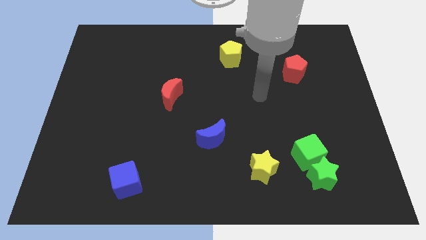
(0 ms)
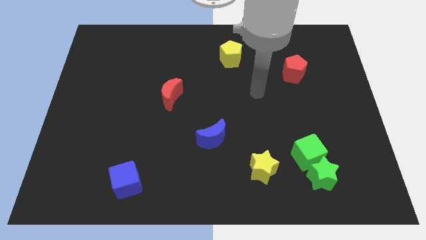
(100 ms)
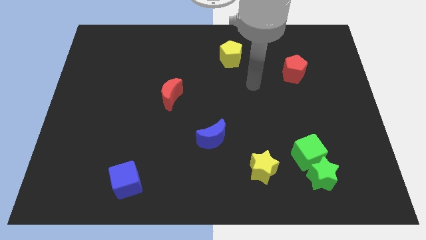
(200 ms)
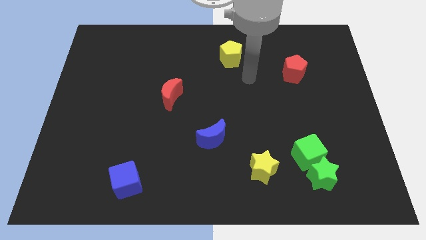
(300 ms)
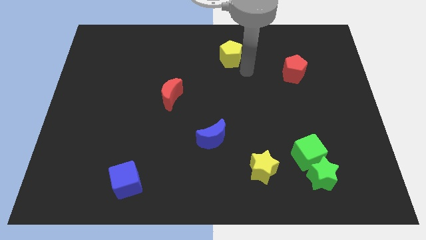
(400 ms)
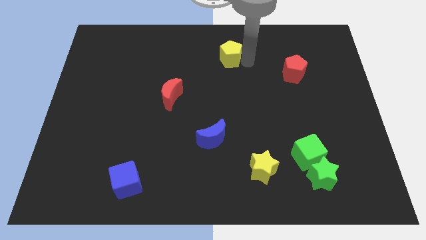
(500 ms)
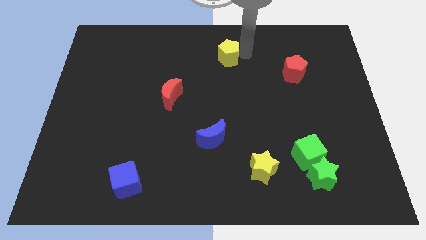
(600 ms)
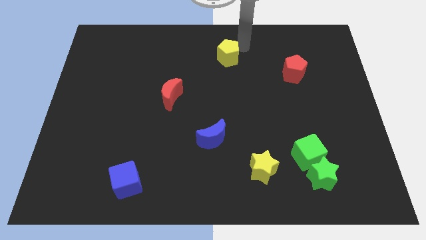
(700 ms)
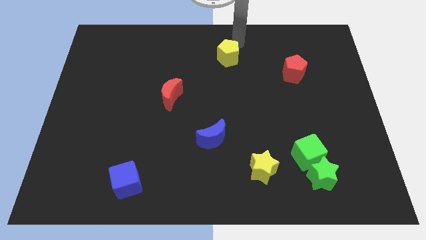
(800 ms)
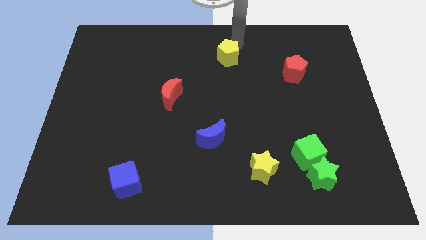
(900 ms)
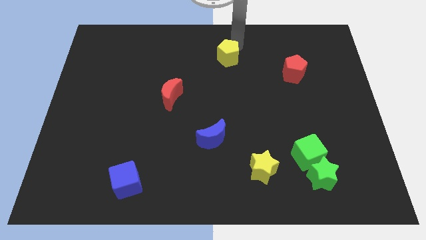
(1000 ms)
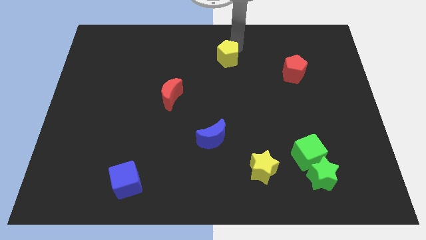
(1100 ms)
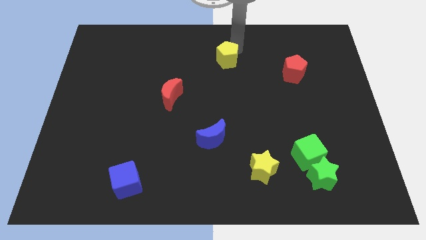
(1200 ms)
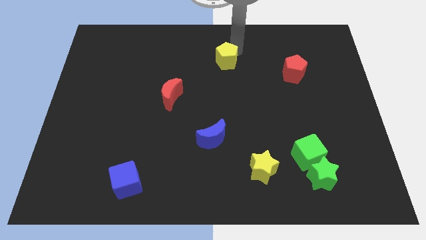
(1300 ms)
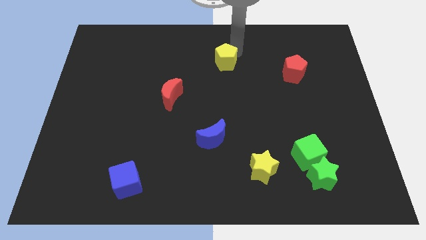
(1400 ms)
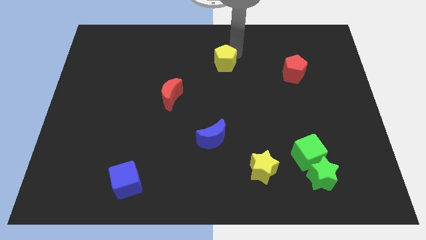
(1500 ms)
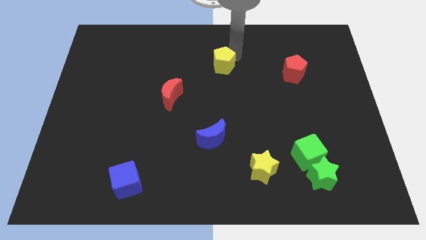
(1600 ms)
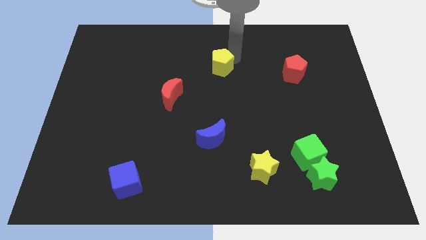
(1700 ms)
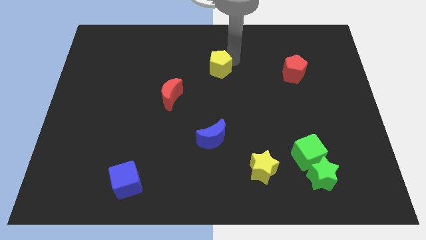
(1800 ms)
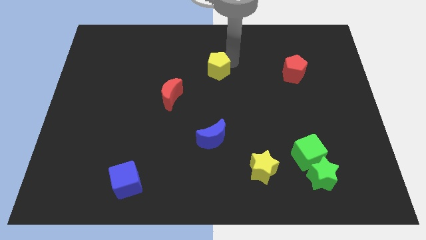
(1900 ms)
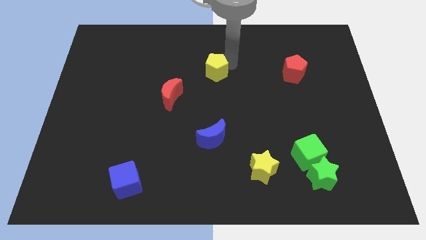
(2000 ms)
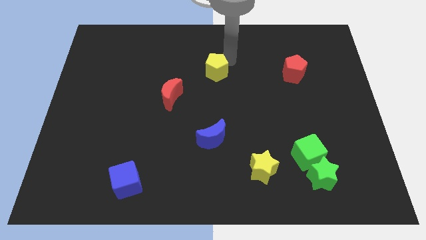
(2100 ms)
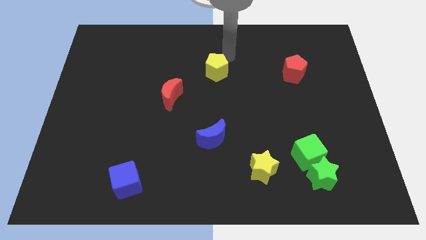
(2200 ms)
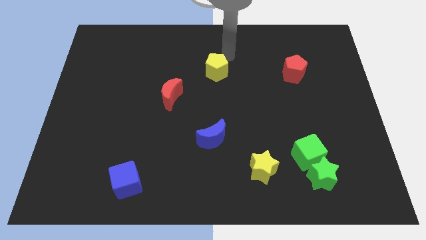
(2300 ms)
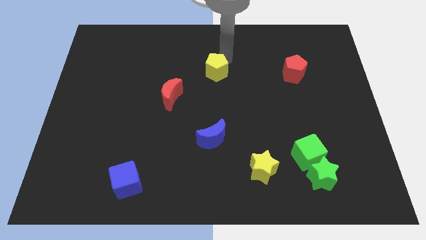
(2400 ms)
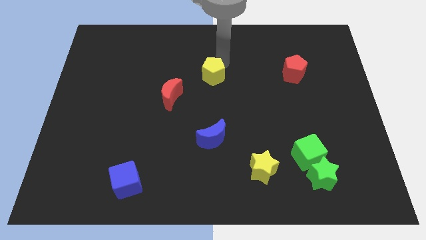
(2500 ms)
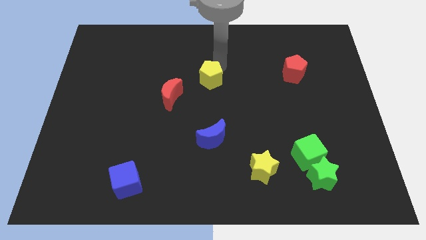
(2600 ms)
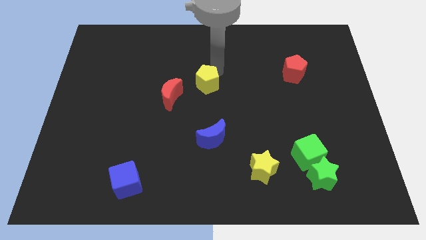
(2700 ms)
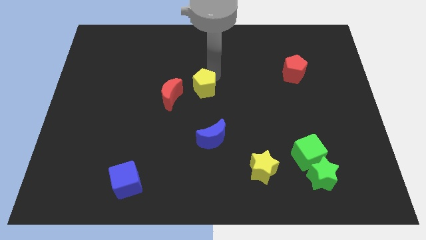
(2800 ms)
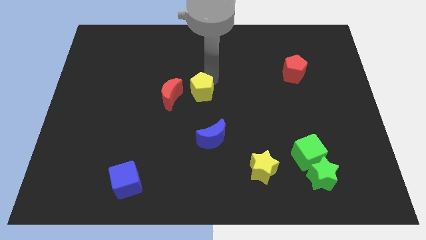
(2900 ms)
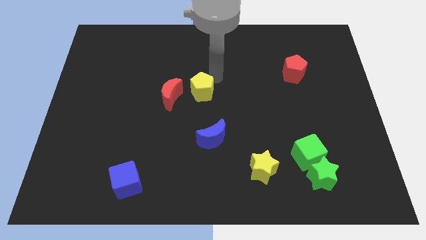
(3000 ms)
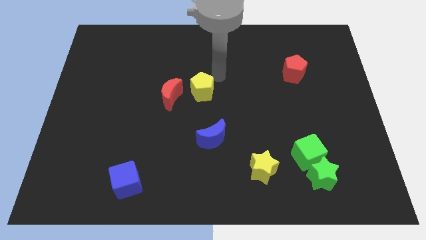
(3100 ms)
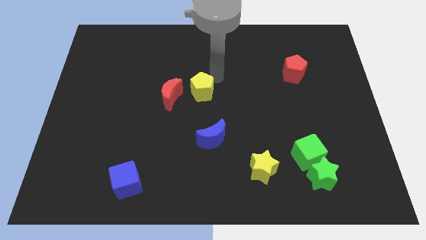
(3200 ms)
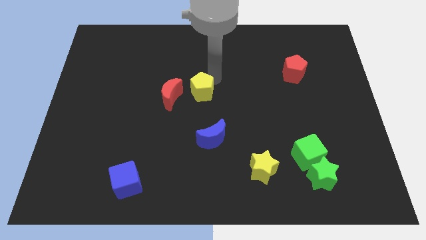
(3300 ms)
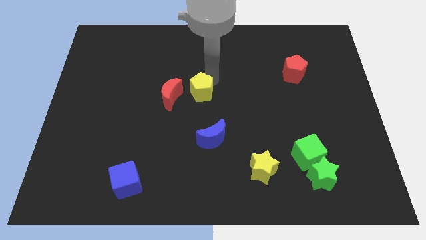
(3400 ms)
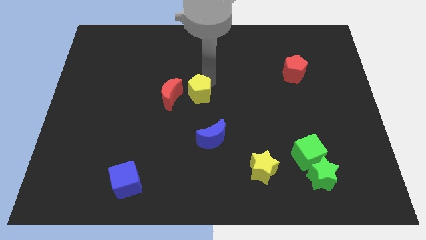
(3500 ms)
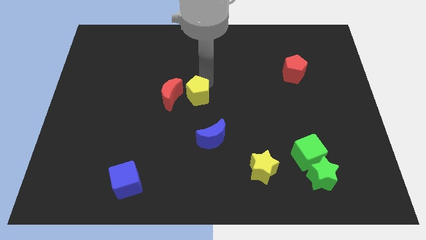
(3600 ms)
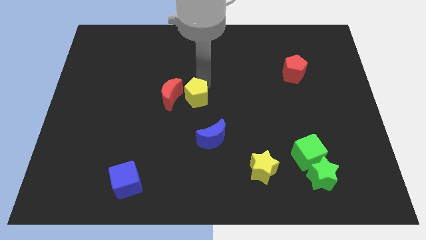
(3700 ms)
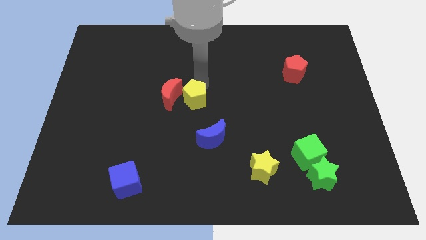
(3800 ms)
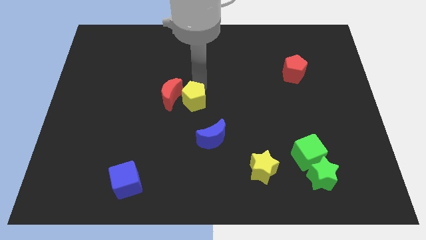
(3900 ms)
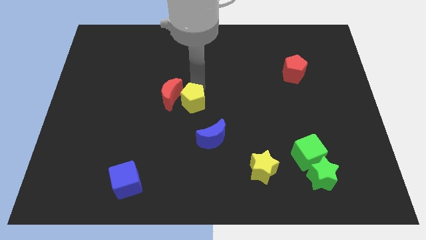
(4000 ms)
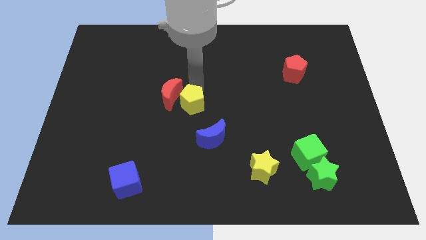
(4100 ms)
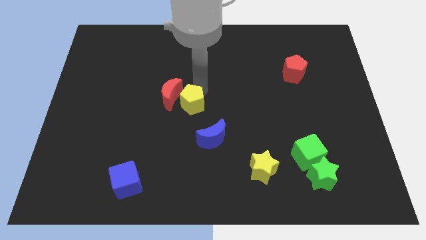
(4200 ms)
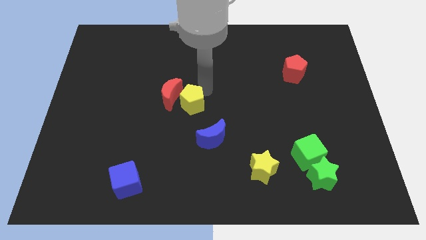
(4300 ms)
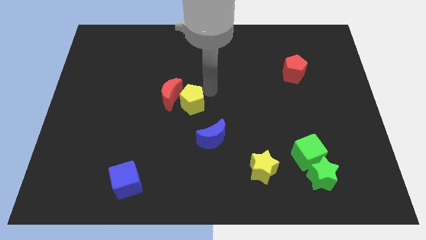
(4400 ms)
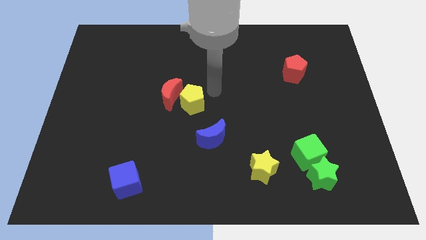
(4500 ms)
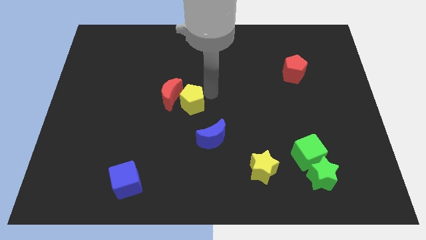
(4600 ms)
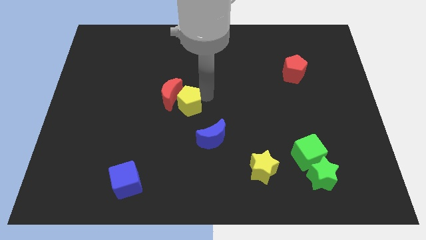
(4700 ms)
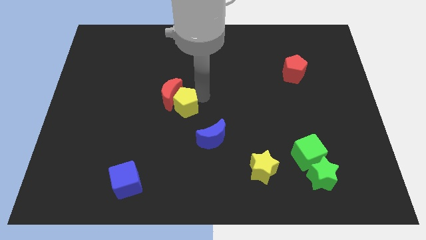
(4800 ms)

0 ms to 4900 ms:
put the yellow pentagon to the bottom of the red moon

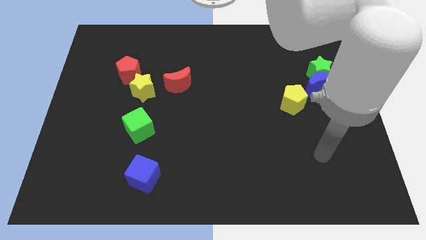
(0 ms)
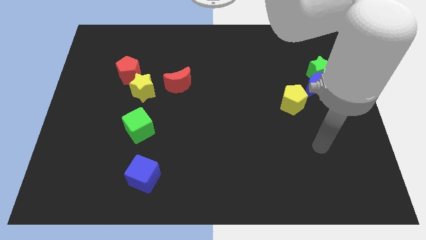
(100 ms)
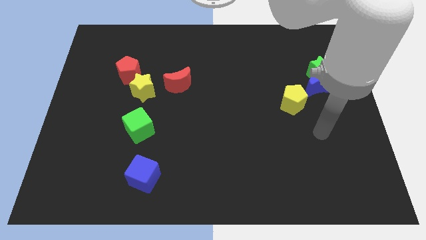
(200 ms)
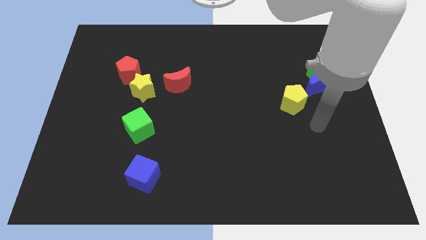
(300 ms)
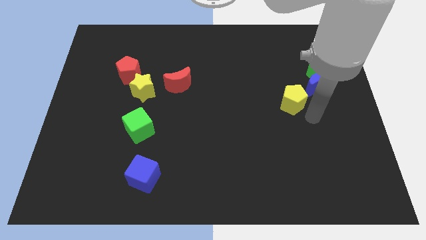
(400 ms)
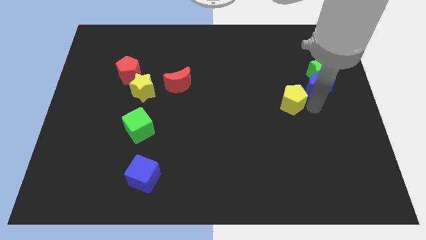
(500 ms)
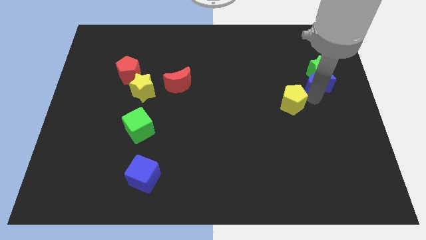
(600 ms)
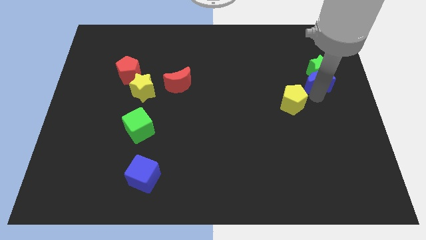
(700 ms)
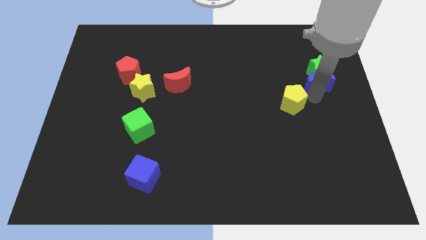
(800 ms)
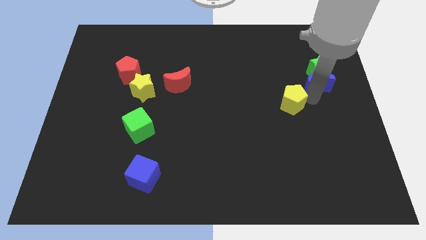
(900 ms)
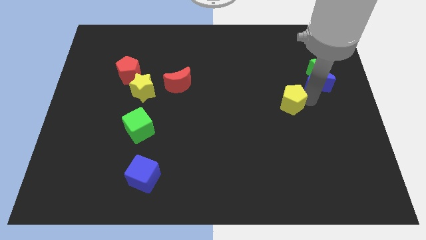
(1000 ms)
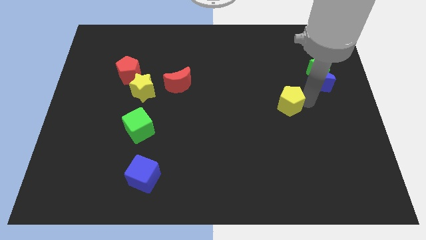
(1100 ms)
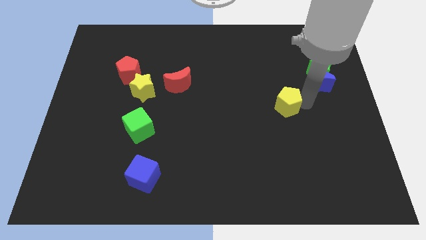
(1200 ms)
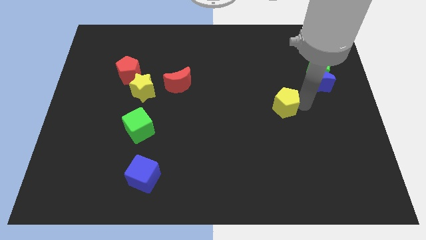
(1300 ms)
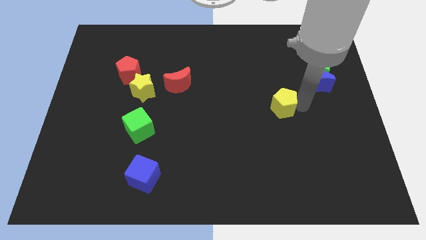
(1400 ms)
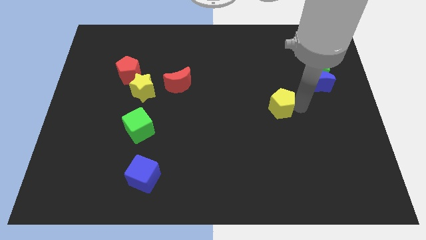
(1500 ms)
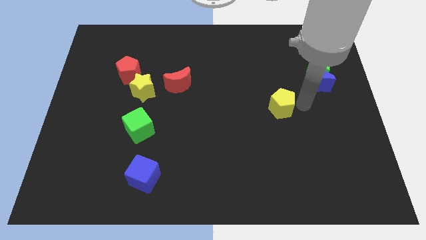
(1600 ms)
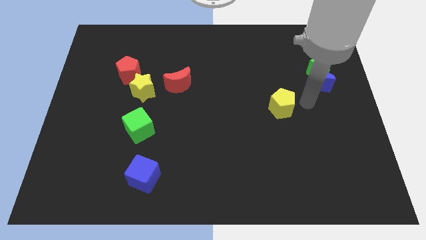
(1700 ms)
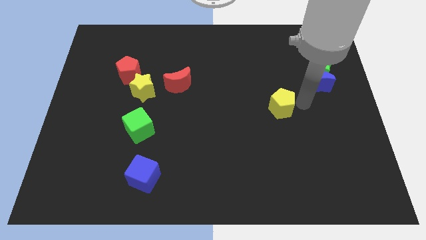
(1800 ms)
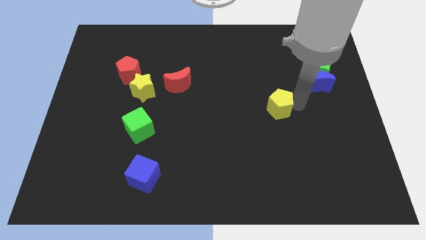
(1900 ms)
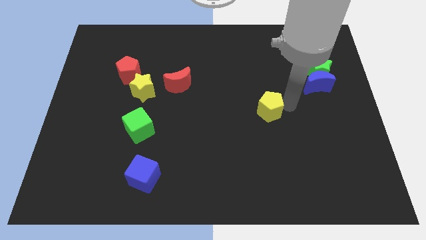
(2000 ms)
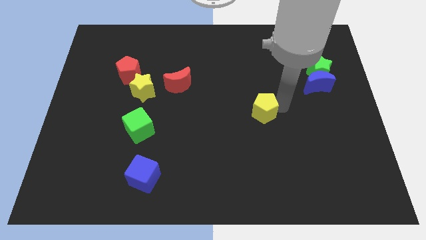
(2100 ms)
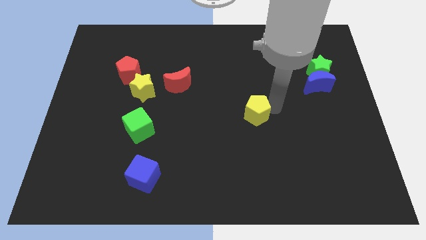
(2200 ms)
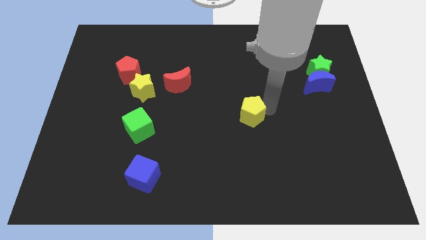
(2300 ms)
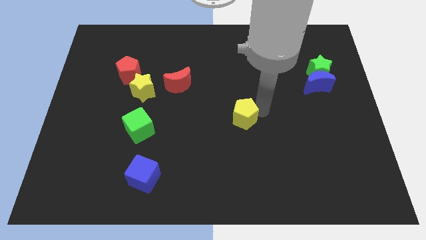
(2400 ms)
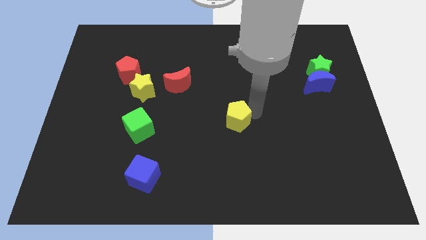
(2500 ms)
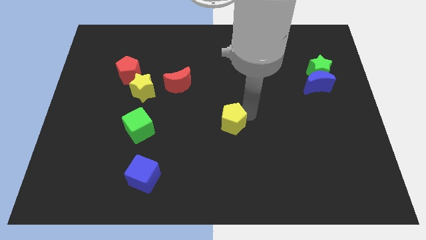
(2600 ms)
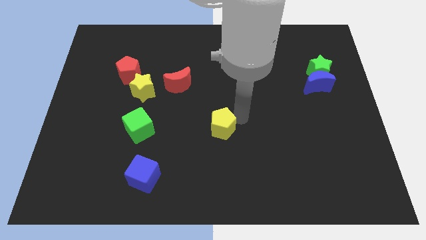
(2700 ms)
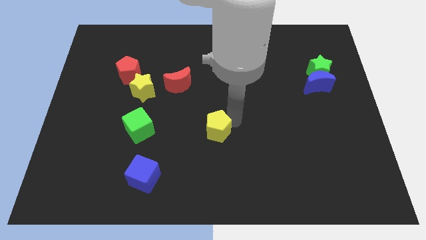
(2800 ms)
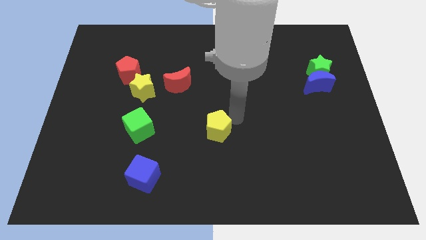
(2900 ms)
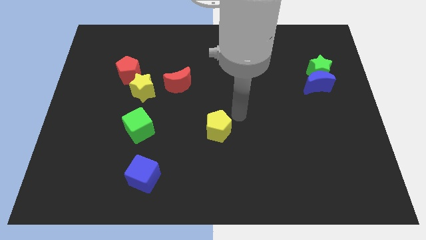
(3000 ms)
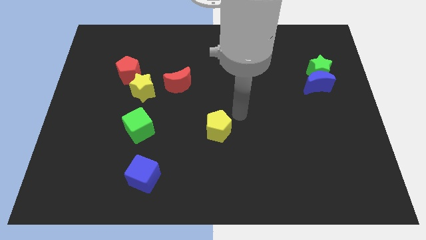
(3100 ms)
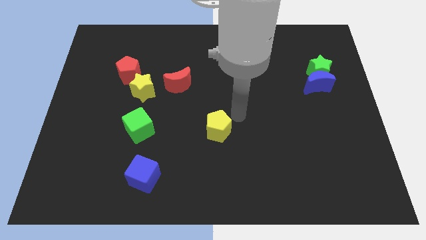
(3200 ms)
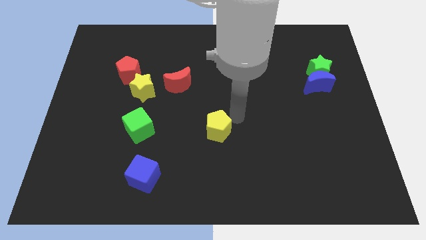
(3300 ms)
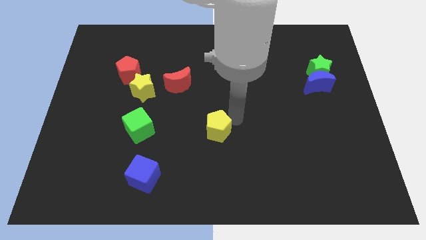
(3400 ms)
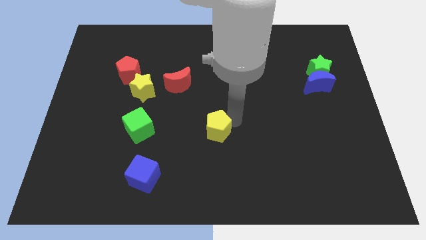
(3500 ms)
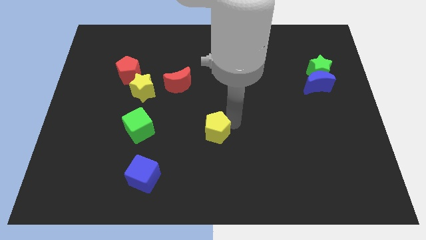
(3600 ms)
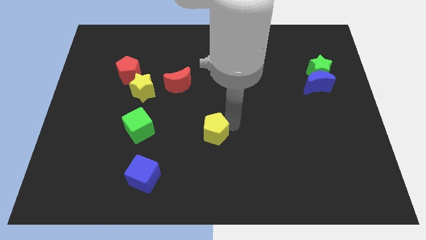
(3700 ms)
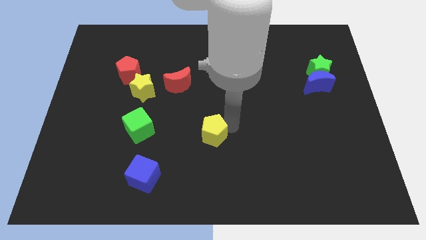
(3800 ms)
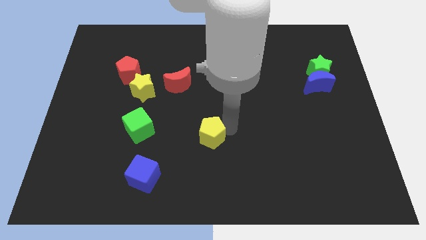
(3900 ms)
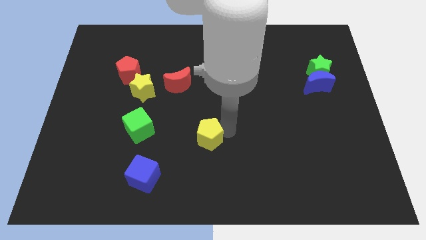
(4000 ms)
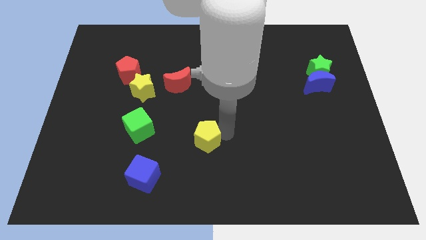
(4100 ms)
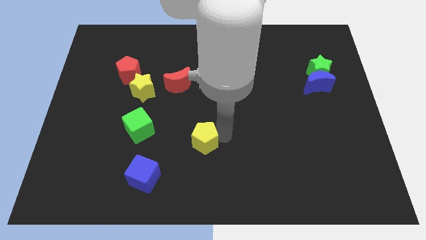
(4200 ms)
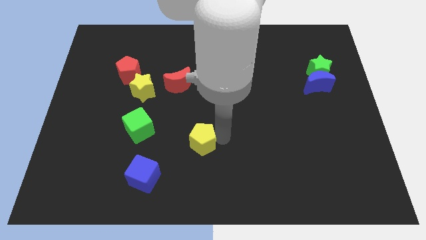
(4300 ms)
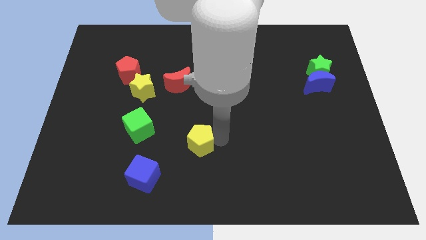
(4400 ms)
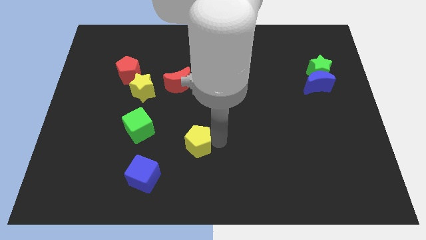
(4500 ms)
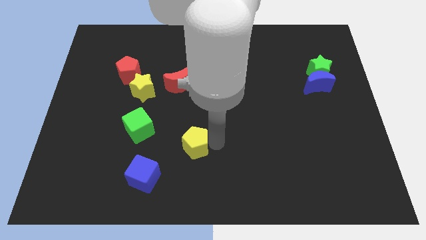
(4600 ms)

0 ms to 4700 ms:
slide the yellow pentagon diagonally up and to the right of the blue cube
